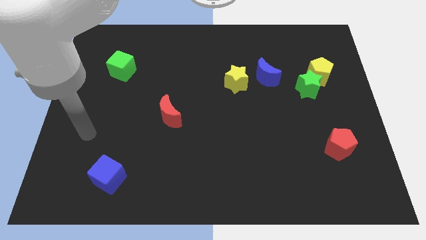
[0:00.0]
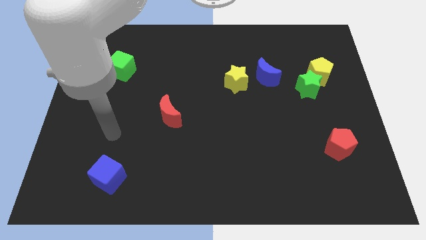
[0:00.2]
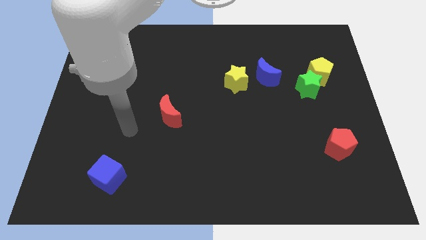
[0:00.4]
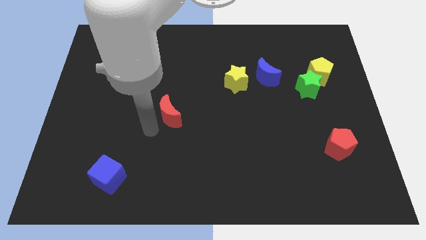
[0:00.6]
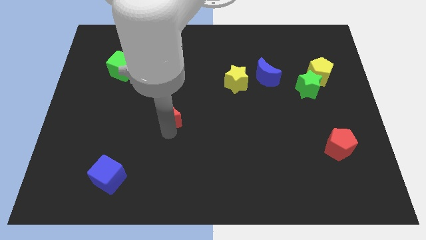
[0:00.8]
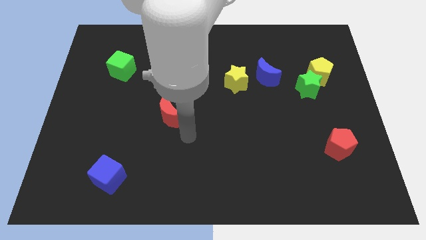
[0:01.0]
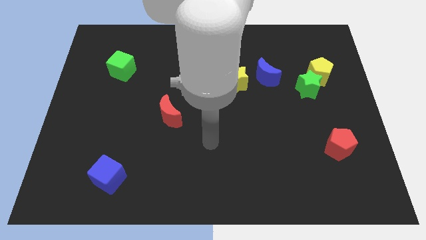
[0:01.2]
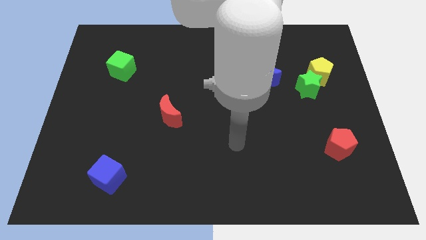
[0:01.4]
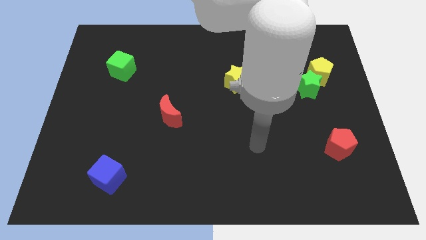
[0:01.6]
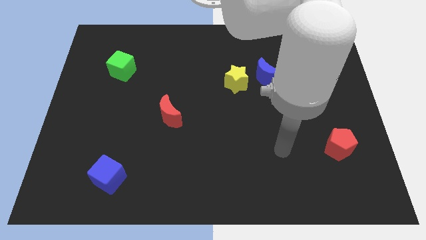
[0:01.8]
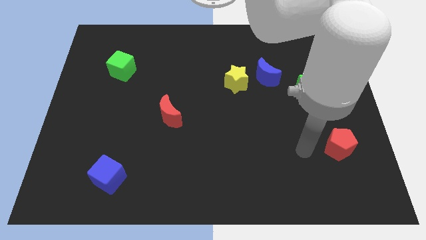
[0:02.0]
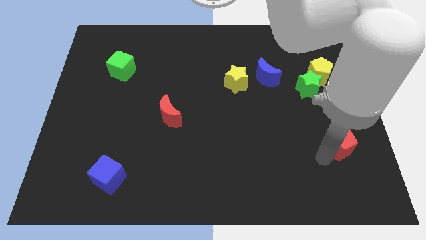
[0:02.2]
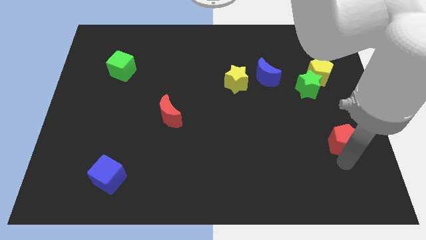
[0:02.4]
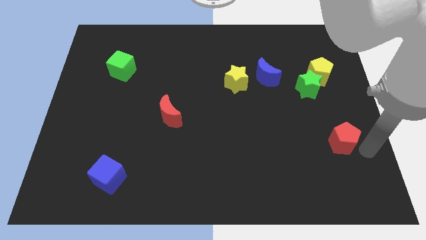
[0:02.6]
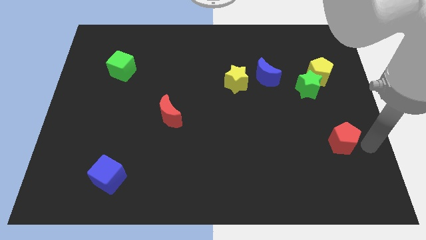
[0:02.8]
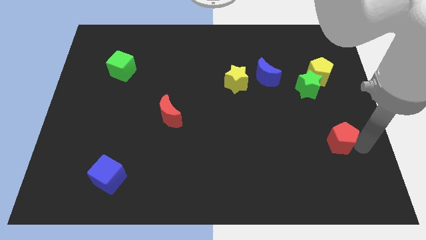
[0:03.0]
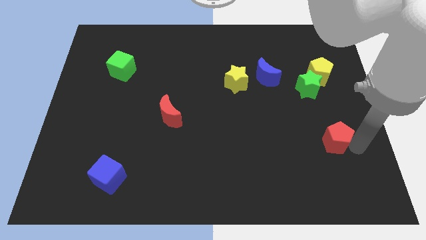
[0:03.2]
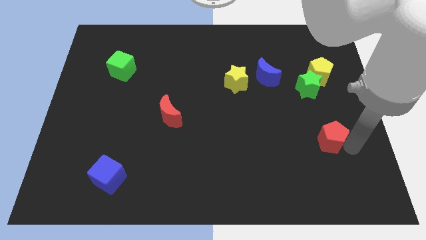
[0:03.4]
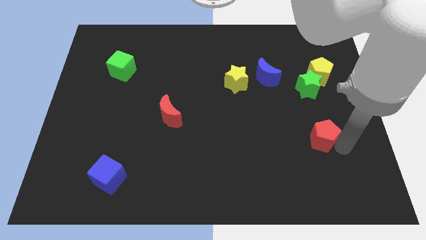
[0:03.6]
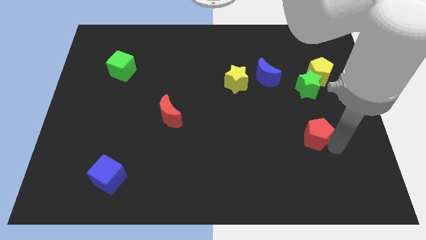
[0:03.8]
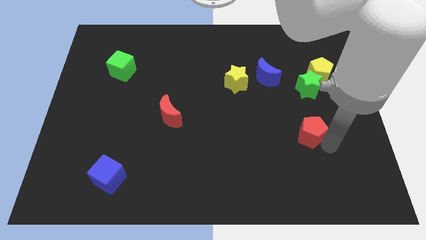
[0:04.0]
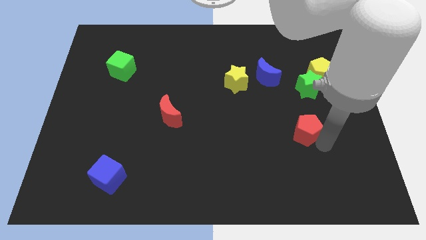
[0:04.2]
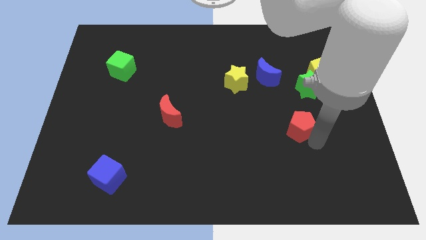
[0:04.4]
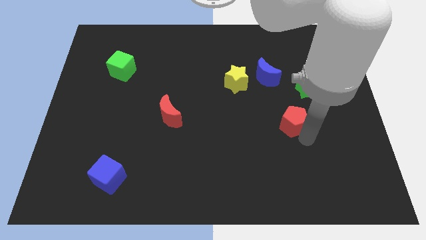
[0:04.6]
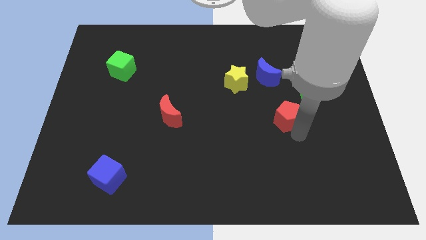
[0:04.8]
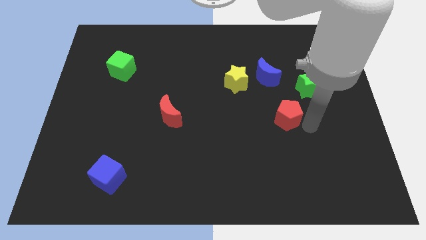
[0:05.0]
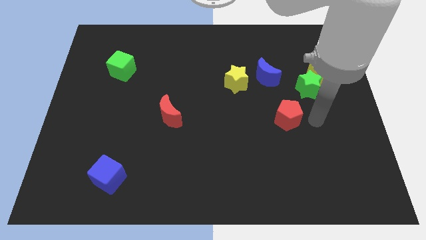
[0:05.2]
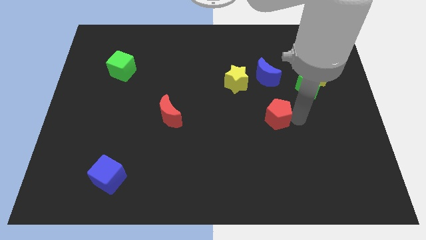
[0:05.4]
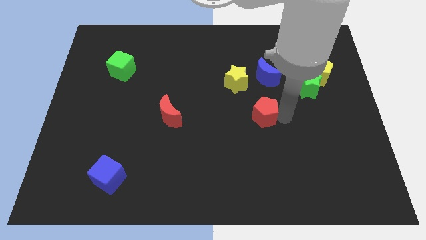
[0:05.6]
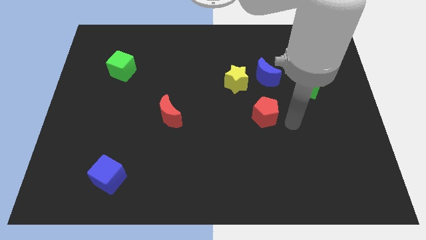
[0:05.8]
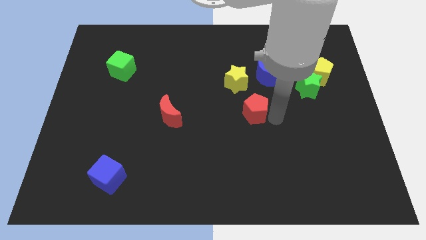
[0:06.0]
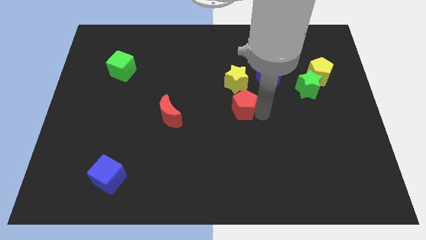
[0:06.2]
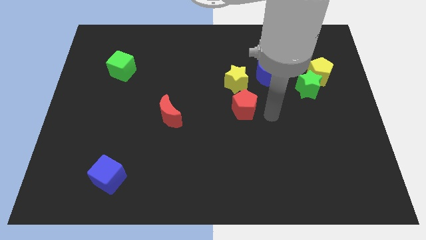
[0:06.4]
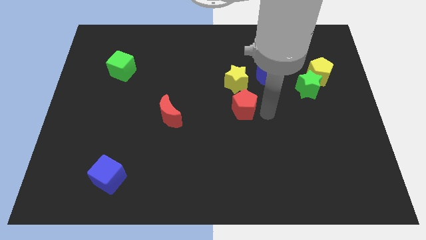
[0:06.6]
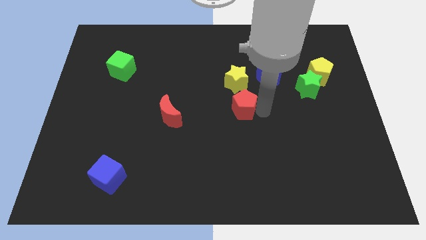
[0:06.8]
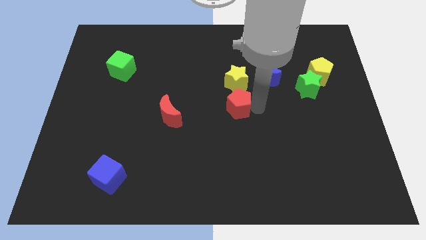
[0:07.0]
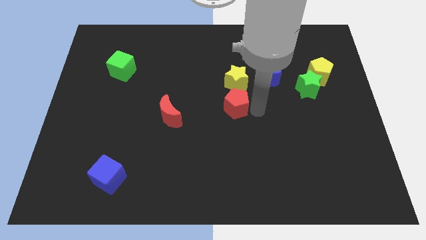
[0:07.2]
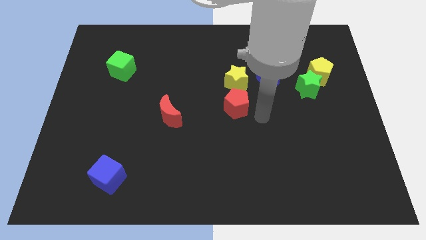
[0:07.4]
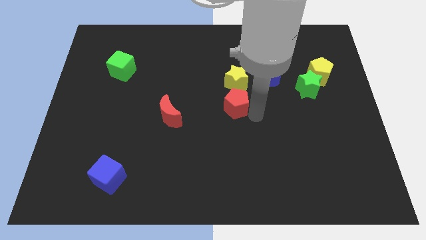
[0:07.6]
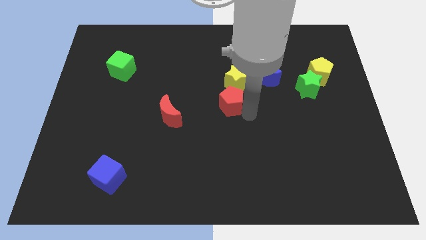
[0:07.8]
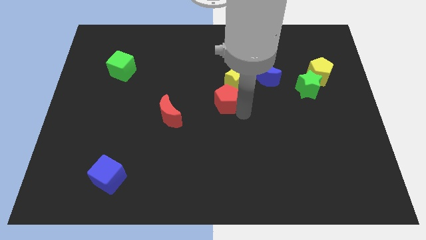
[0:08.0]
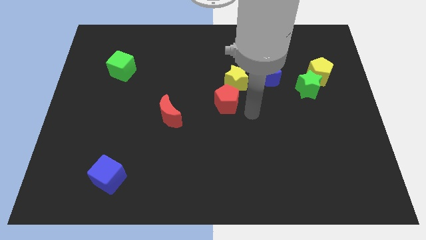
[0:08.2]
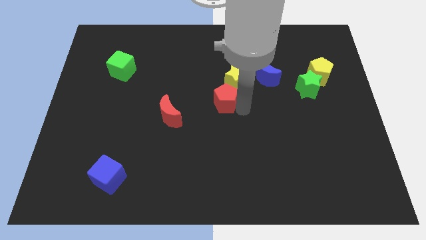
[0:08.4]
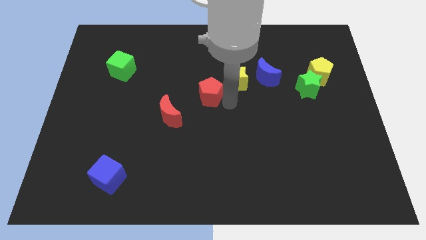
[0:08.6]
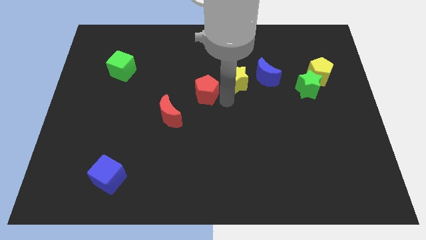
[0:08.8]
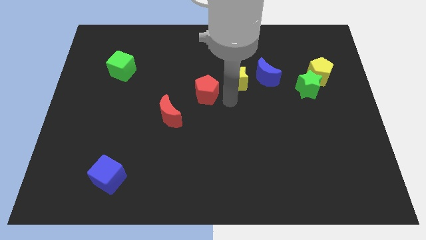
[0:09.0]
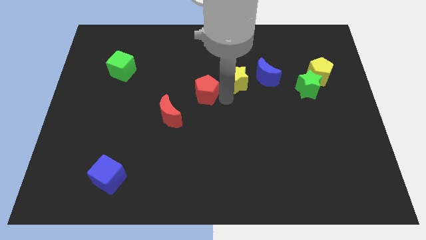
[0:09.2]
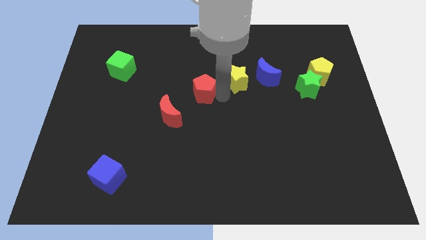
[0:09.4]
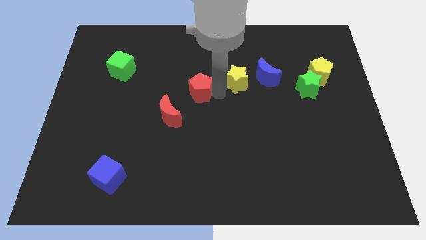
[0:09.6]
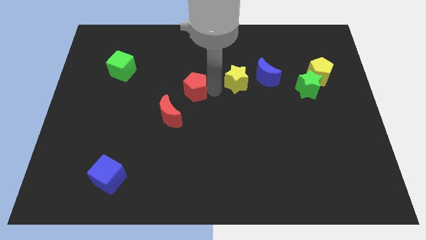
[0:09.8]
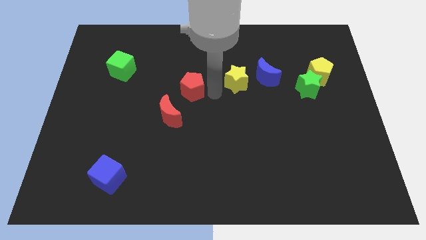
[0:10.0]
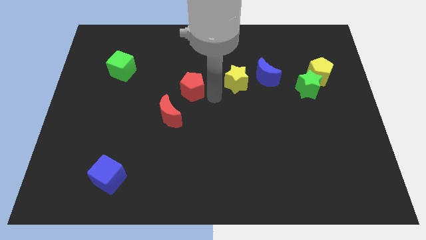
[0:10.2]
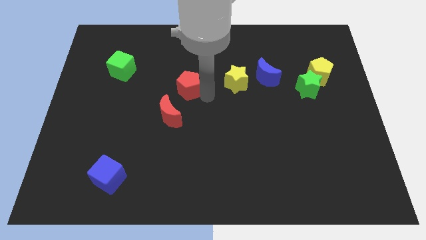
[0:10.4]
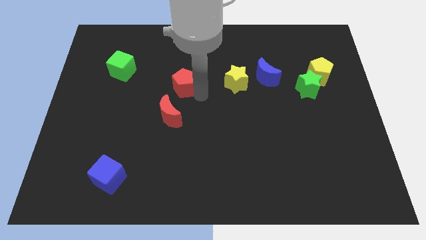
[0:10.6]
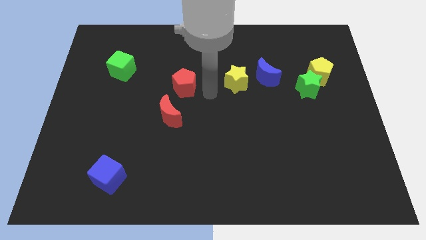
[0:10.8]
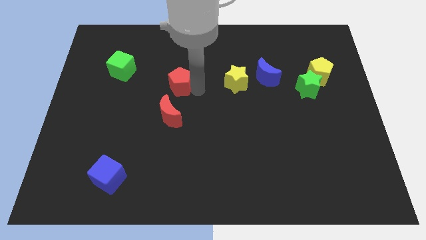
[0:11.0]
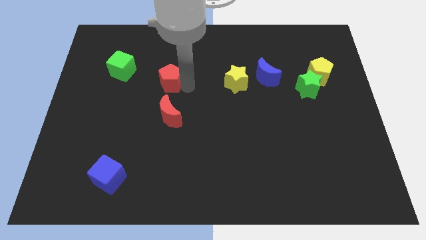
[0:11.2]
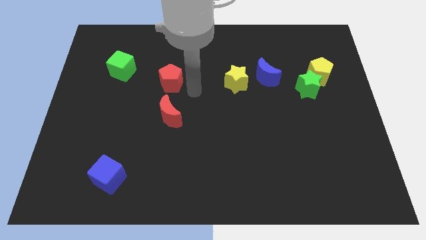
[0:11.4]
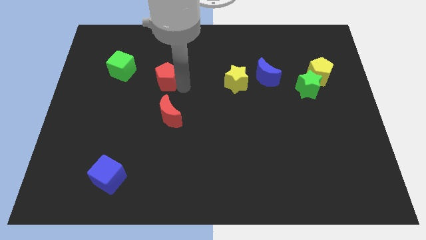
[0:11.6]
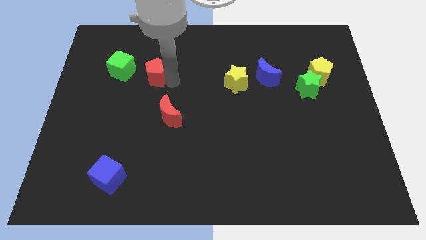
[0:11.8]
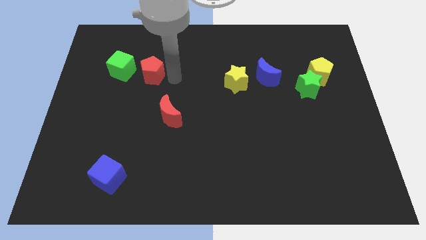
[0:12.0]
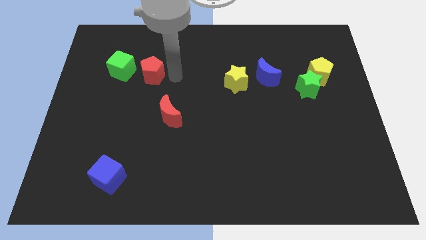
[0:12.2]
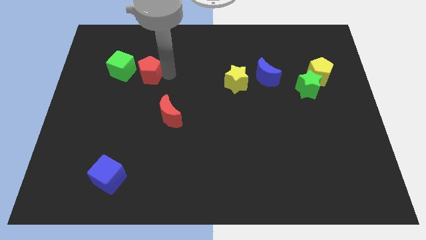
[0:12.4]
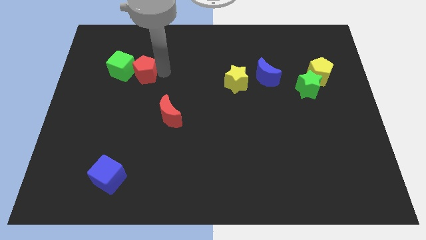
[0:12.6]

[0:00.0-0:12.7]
put the red pentagon next to the green cube

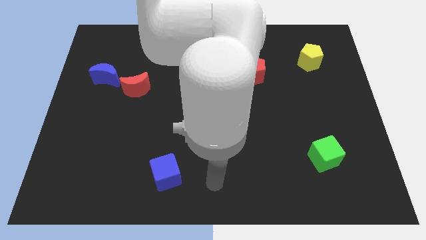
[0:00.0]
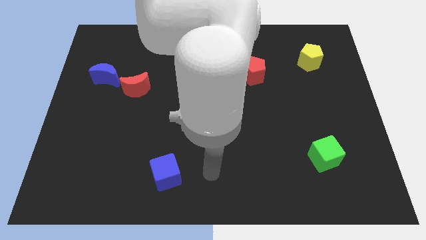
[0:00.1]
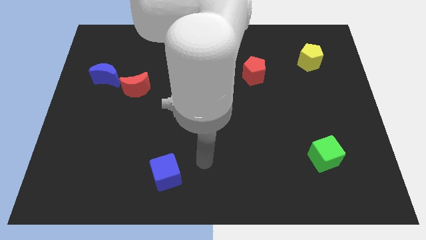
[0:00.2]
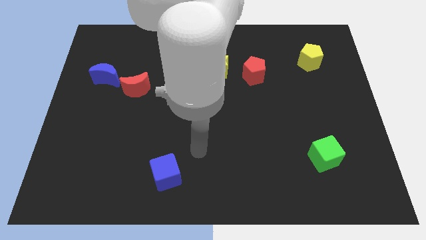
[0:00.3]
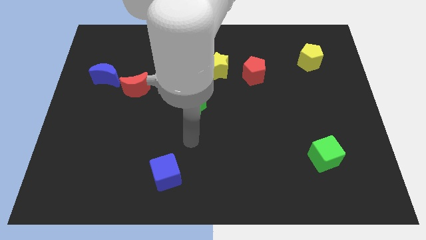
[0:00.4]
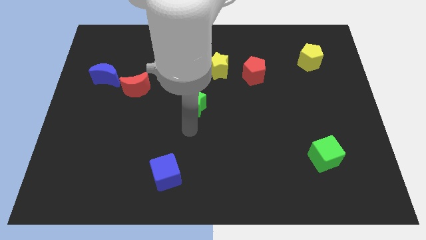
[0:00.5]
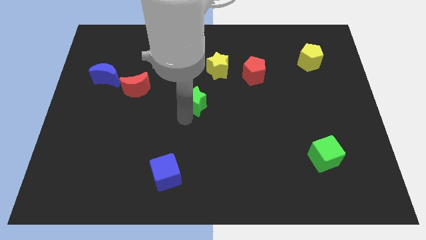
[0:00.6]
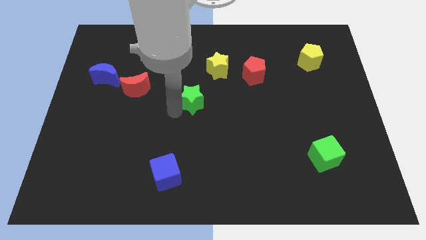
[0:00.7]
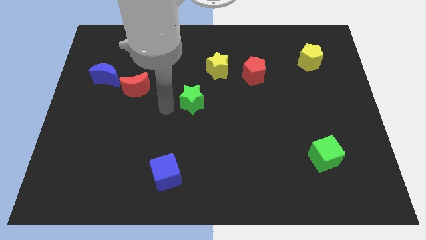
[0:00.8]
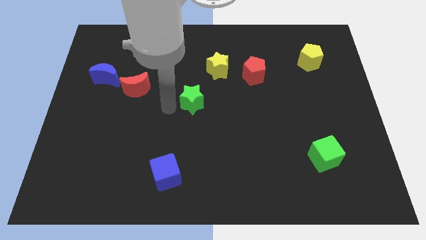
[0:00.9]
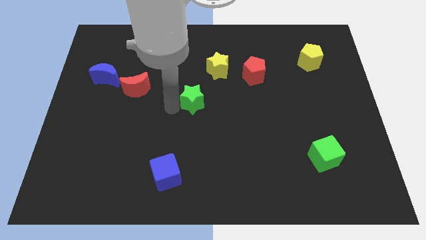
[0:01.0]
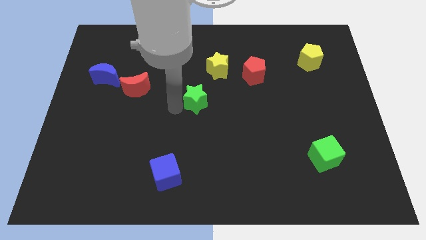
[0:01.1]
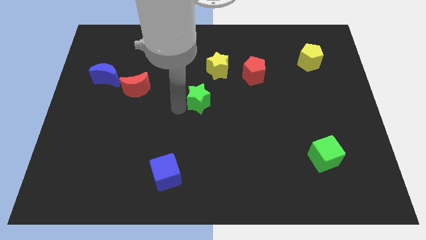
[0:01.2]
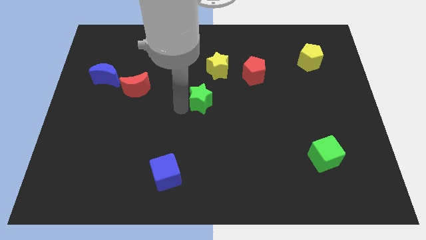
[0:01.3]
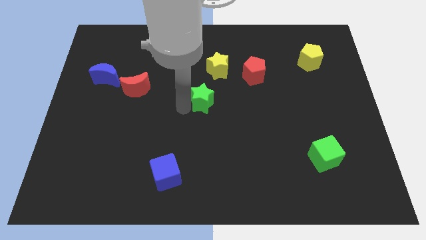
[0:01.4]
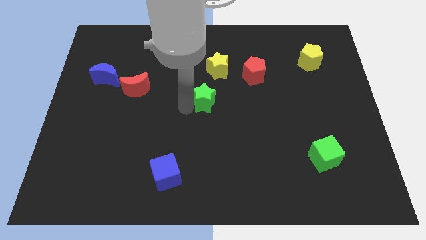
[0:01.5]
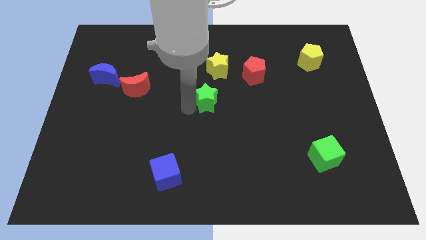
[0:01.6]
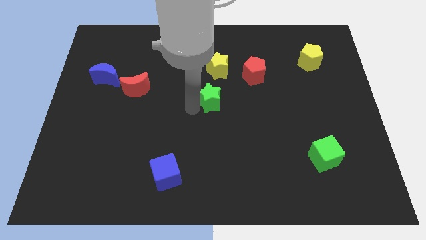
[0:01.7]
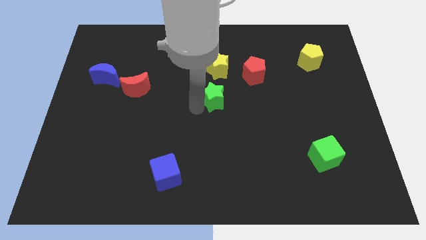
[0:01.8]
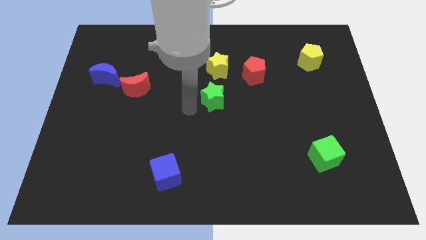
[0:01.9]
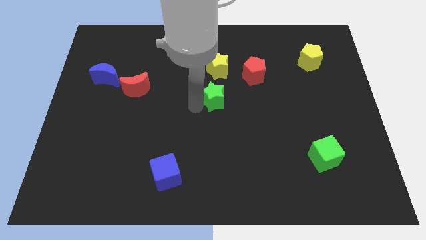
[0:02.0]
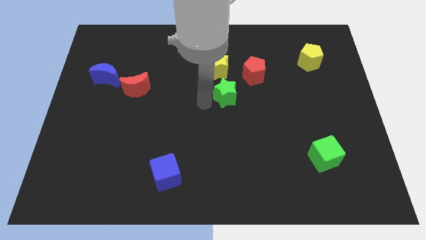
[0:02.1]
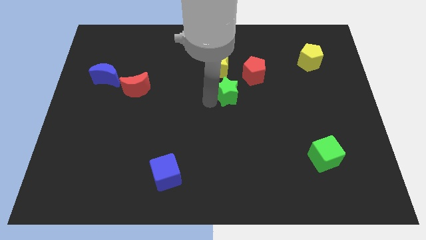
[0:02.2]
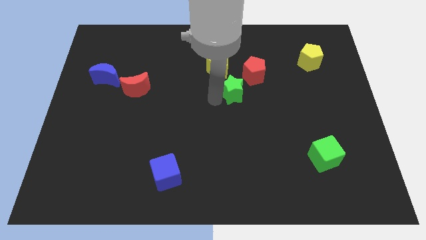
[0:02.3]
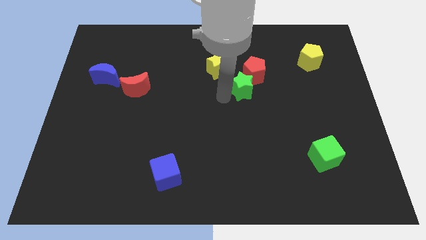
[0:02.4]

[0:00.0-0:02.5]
put the green star to the red pentagon
